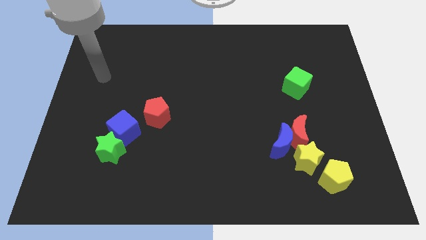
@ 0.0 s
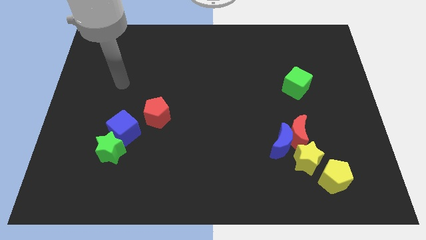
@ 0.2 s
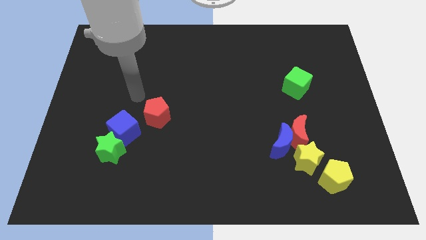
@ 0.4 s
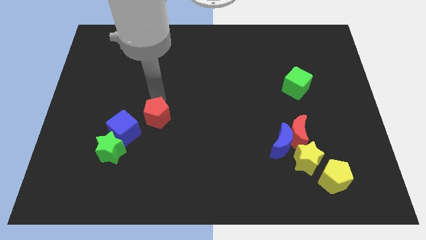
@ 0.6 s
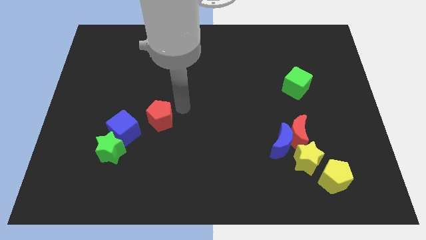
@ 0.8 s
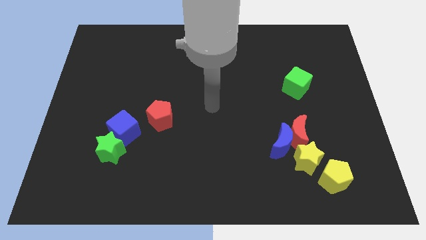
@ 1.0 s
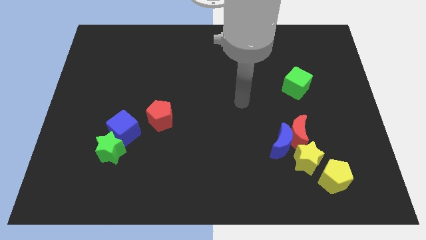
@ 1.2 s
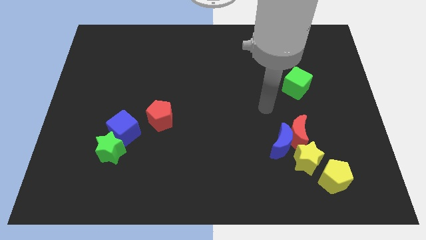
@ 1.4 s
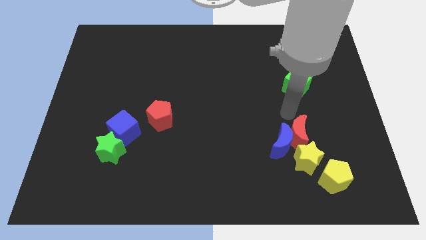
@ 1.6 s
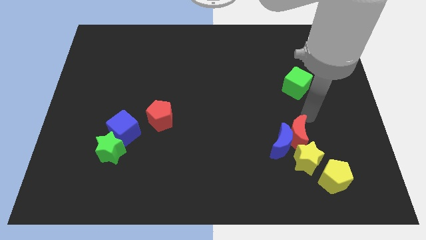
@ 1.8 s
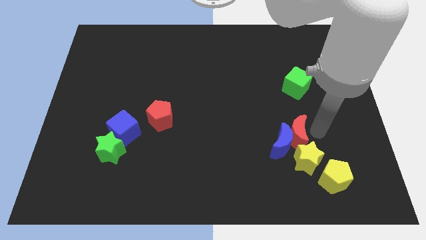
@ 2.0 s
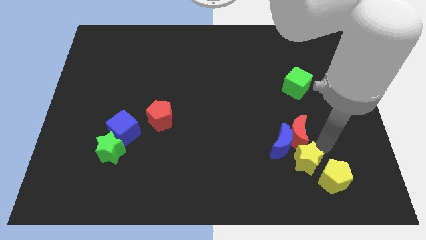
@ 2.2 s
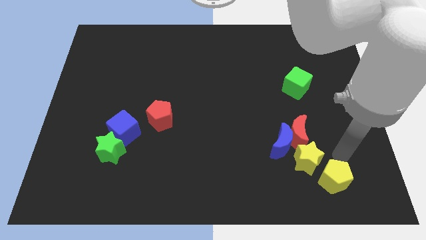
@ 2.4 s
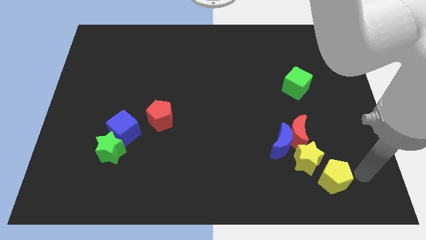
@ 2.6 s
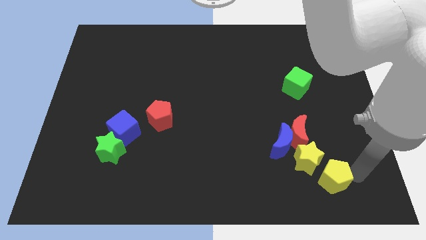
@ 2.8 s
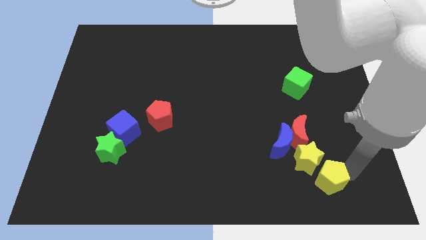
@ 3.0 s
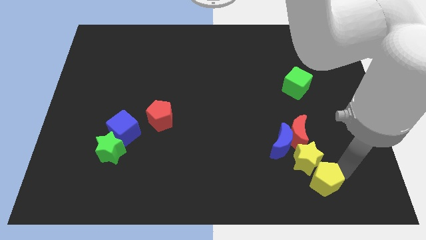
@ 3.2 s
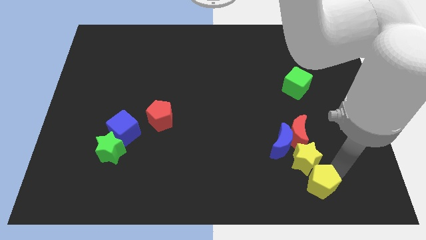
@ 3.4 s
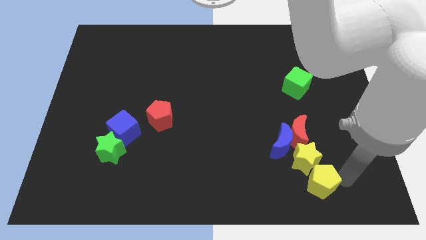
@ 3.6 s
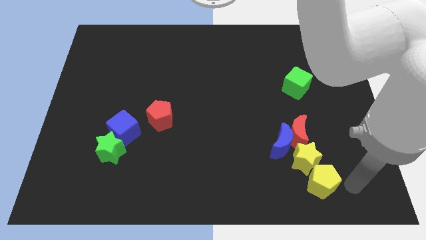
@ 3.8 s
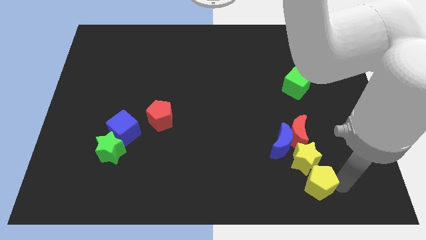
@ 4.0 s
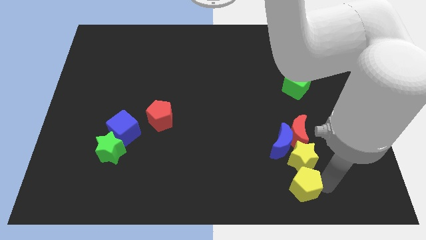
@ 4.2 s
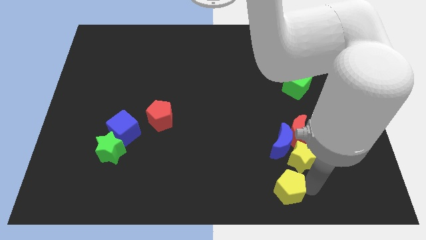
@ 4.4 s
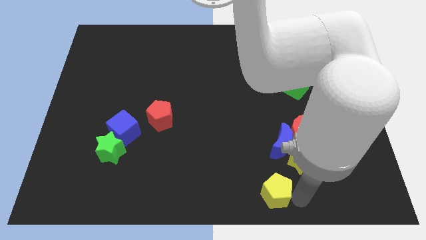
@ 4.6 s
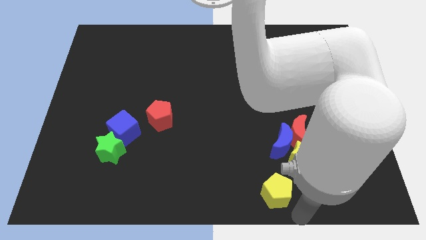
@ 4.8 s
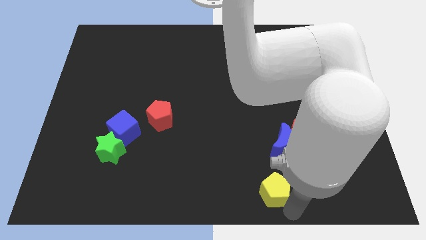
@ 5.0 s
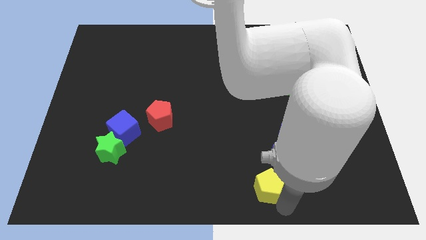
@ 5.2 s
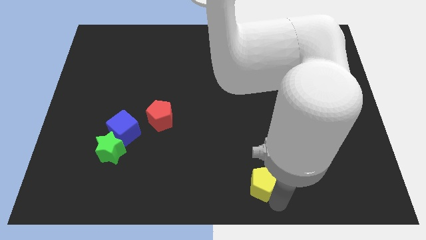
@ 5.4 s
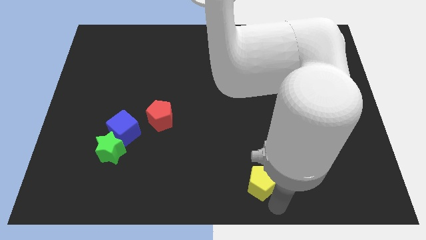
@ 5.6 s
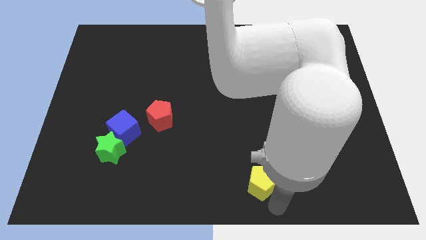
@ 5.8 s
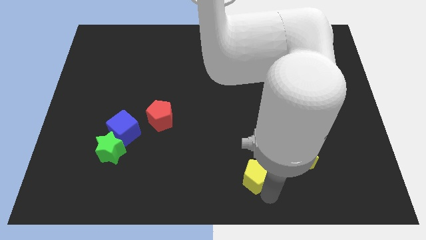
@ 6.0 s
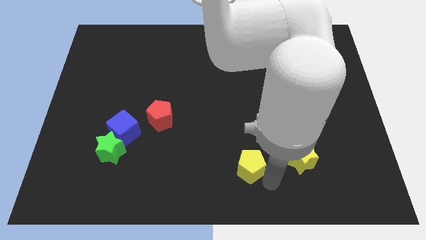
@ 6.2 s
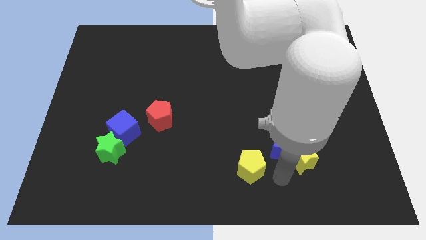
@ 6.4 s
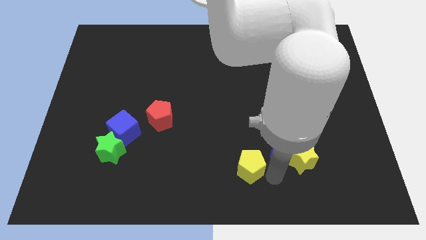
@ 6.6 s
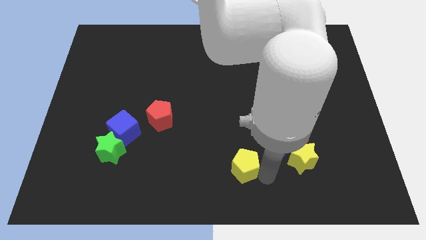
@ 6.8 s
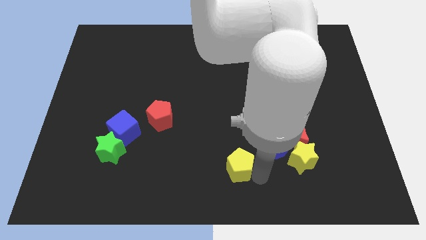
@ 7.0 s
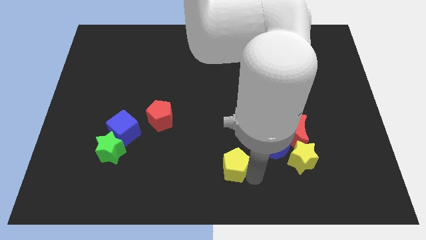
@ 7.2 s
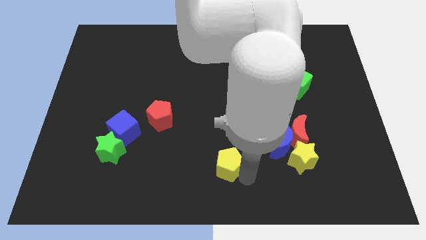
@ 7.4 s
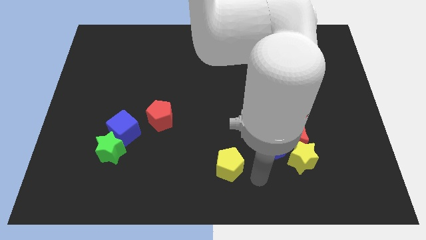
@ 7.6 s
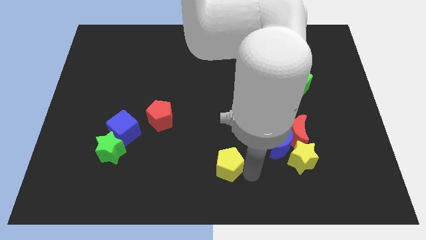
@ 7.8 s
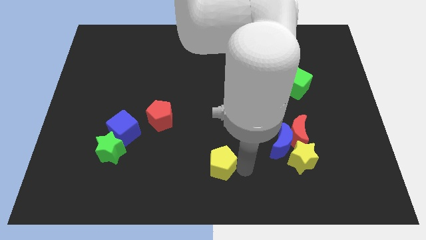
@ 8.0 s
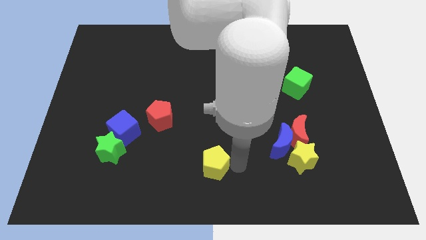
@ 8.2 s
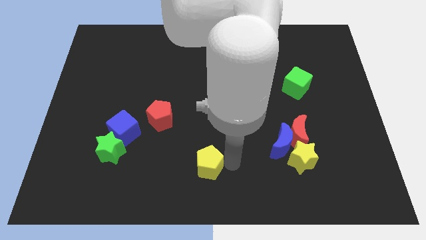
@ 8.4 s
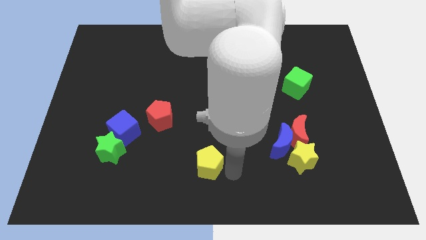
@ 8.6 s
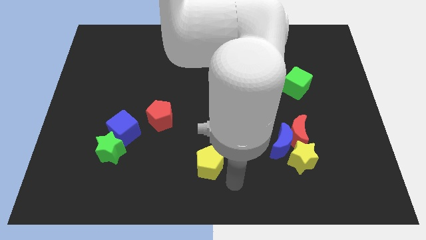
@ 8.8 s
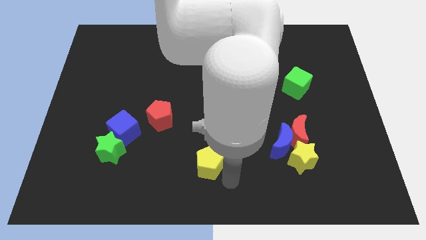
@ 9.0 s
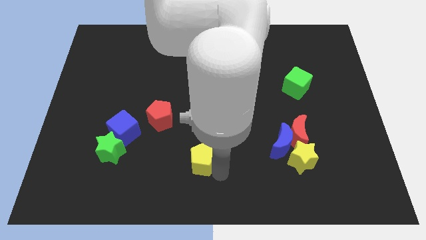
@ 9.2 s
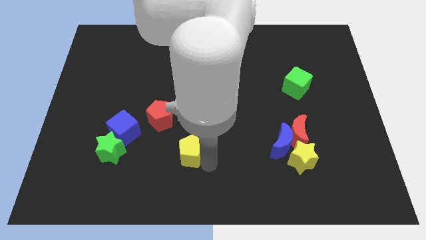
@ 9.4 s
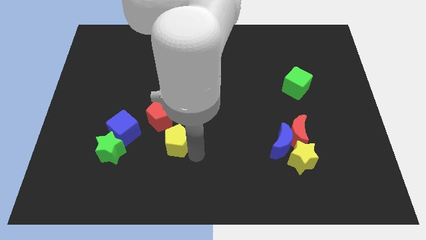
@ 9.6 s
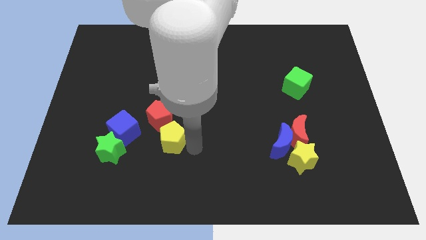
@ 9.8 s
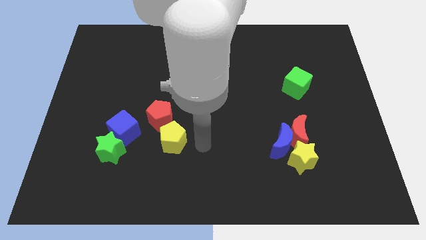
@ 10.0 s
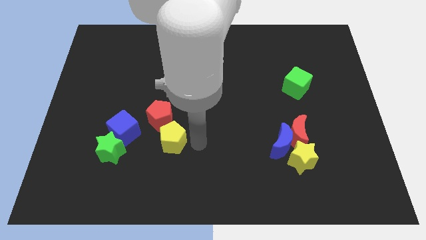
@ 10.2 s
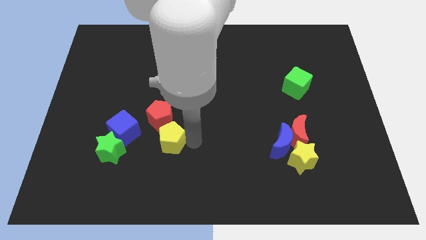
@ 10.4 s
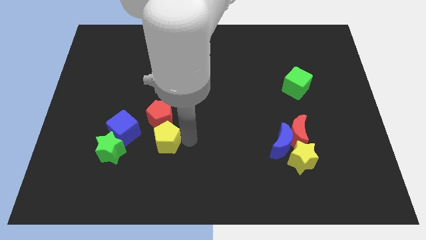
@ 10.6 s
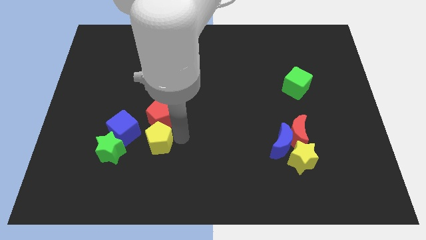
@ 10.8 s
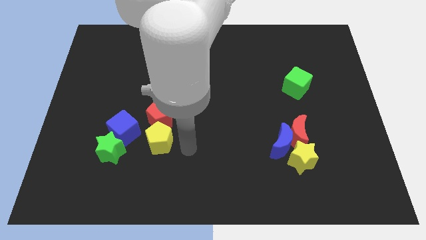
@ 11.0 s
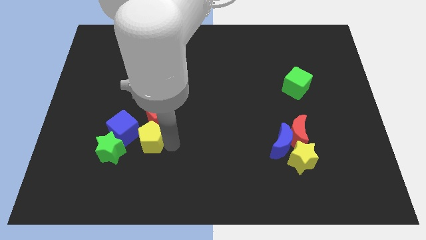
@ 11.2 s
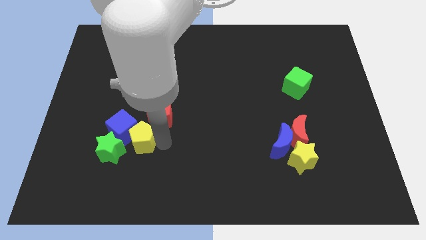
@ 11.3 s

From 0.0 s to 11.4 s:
push the yellow pentagon close to the blue cube
